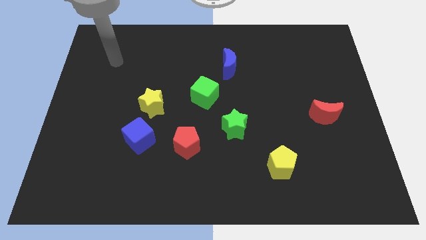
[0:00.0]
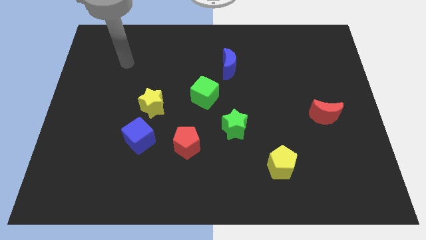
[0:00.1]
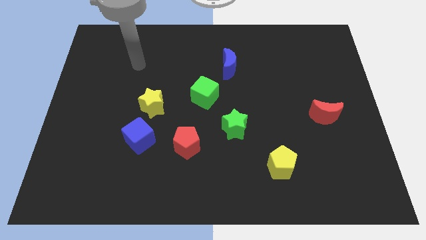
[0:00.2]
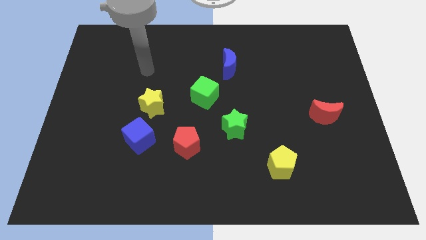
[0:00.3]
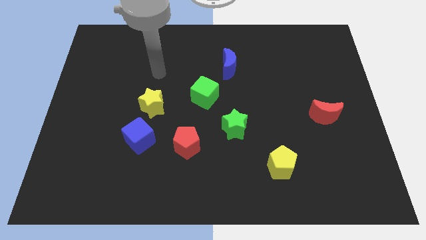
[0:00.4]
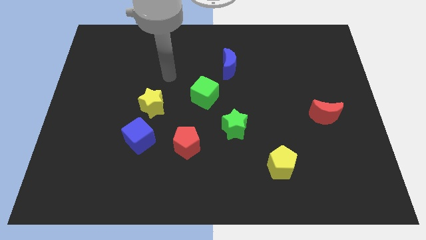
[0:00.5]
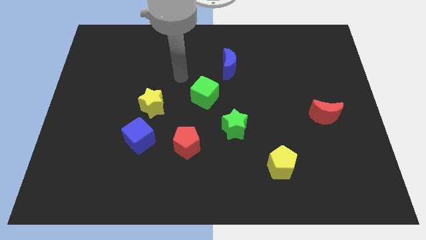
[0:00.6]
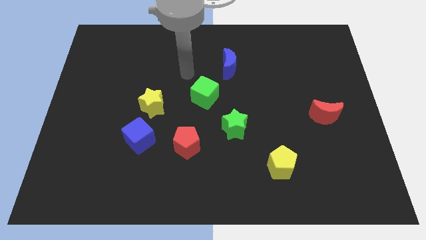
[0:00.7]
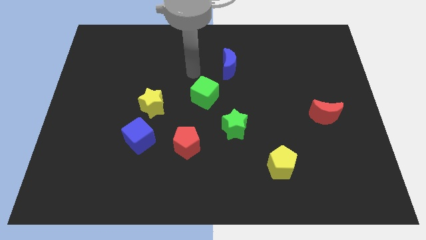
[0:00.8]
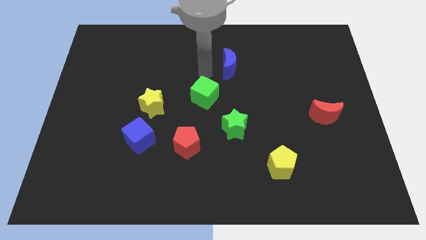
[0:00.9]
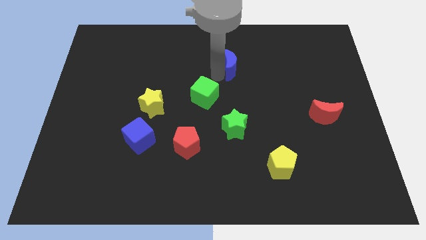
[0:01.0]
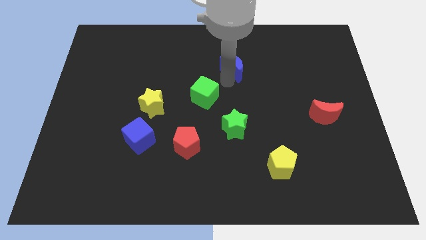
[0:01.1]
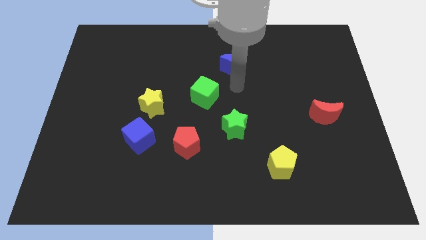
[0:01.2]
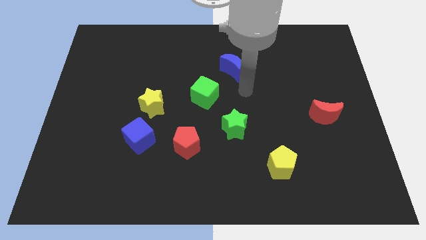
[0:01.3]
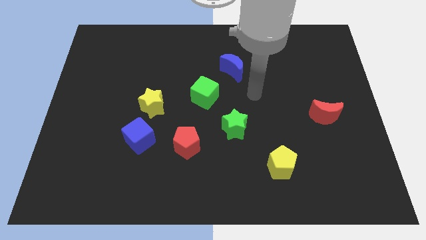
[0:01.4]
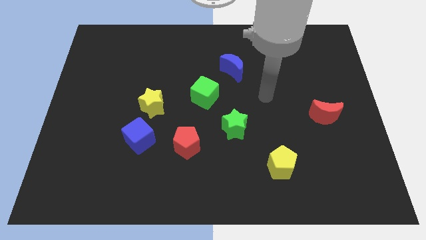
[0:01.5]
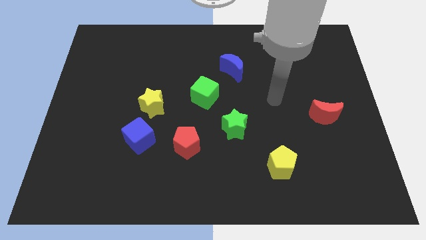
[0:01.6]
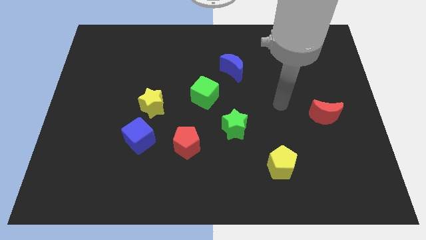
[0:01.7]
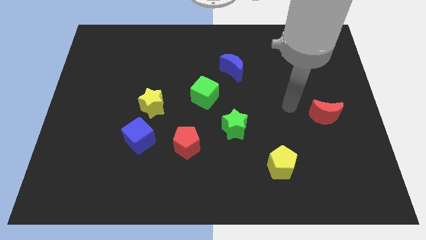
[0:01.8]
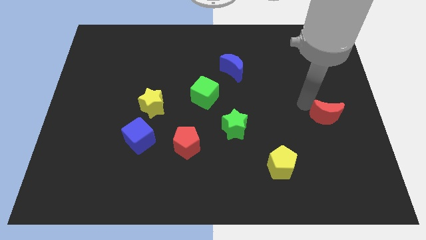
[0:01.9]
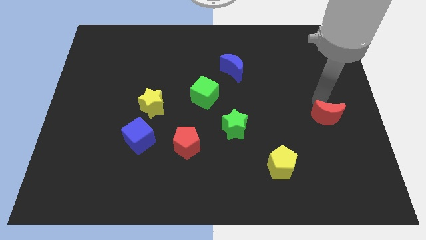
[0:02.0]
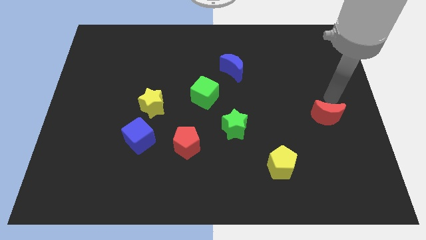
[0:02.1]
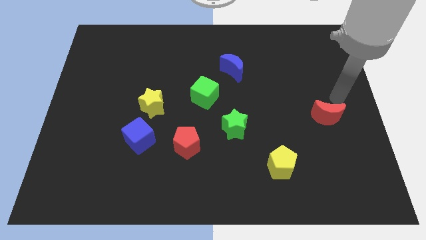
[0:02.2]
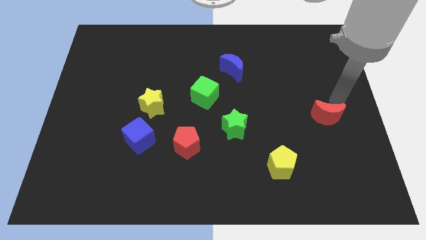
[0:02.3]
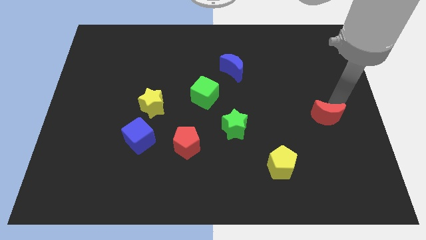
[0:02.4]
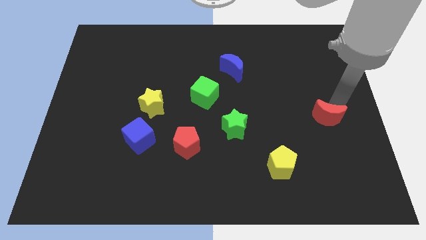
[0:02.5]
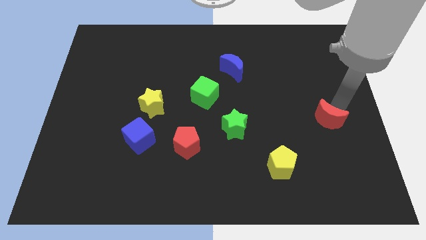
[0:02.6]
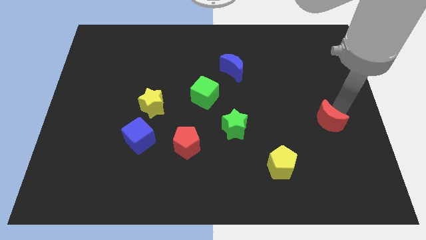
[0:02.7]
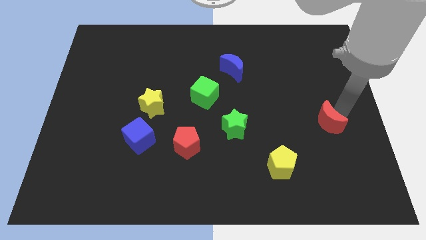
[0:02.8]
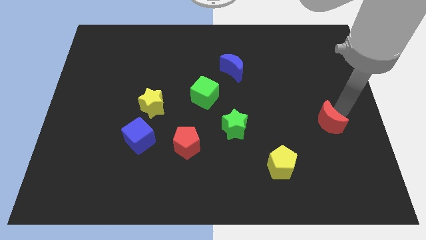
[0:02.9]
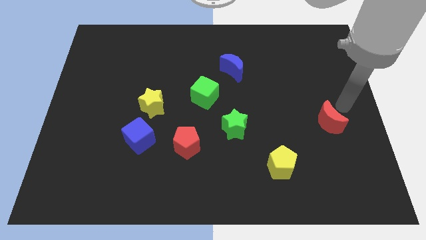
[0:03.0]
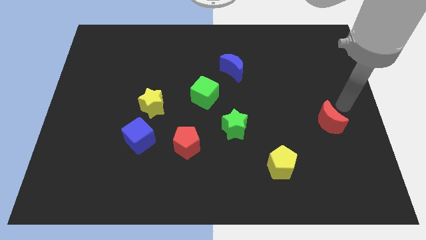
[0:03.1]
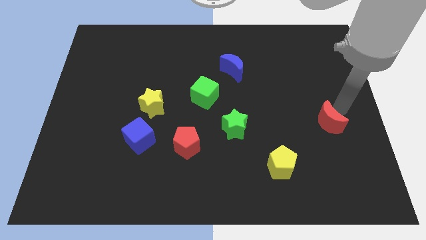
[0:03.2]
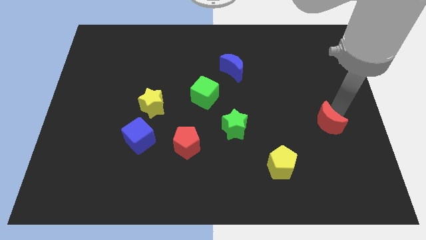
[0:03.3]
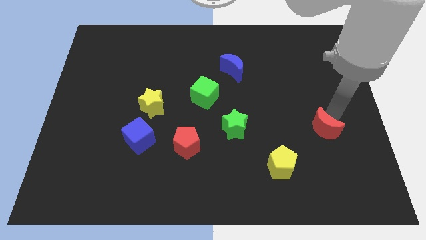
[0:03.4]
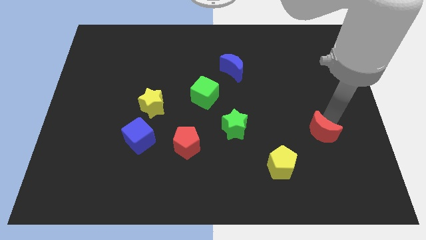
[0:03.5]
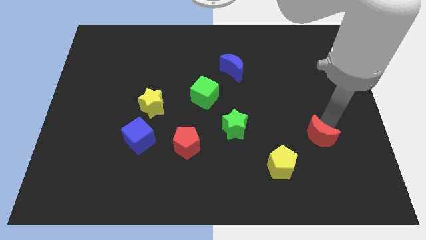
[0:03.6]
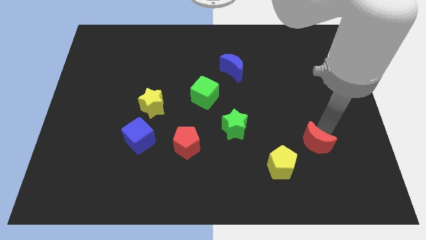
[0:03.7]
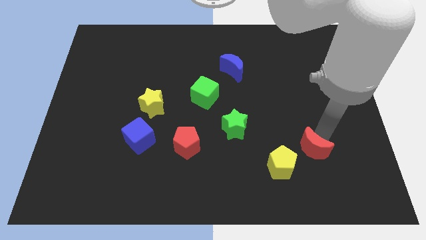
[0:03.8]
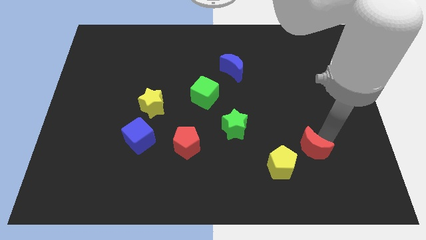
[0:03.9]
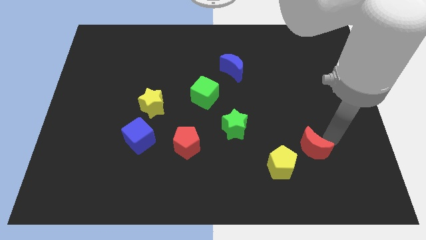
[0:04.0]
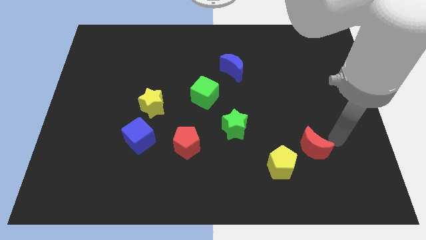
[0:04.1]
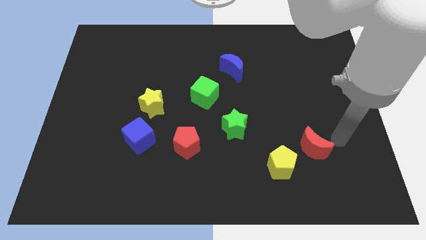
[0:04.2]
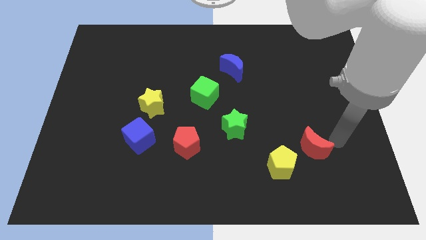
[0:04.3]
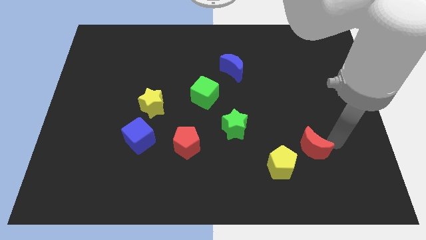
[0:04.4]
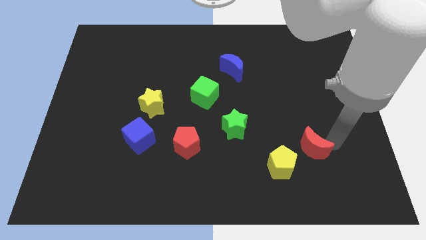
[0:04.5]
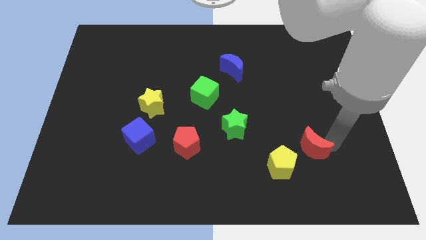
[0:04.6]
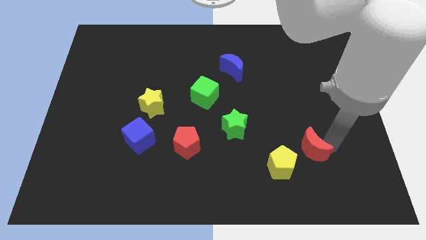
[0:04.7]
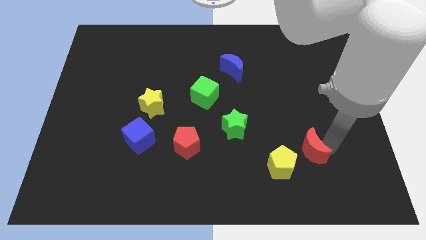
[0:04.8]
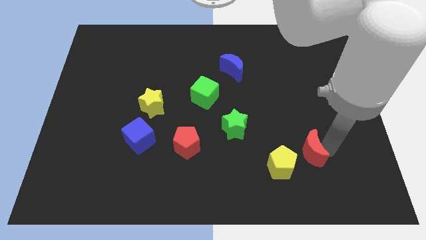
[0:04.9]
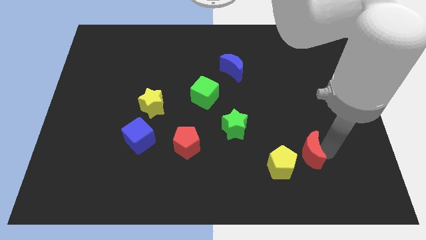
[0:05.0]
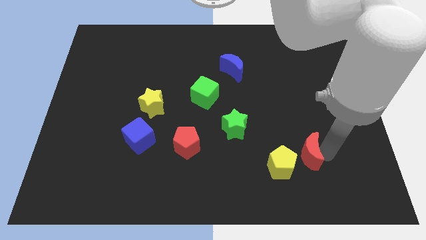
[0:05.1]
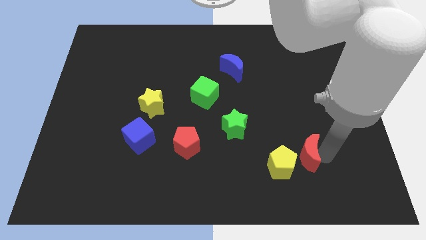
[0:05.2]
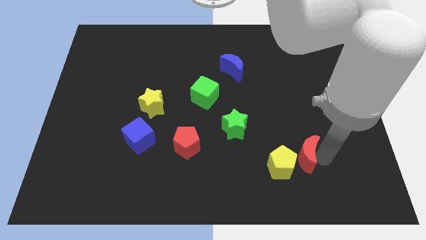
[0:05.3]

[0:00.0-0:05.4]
slide the red moon close to the yellow pentagon

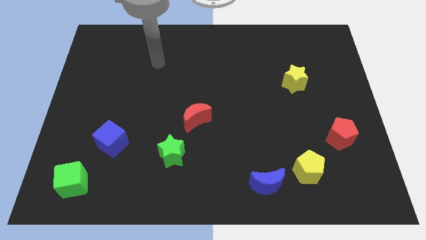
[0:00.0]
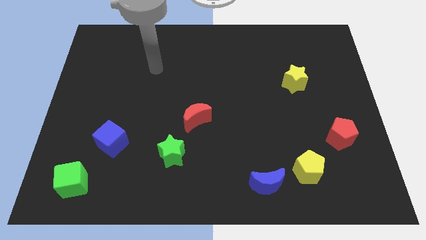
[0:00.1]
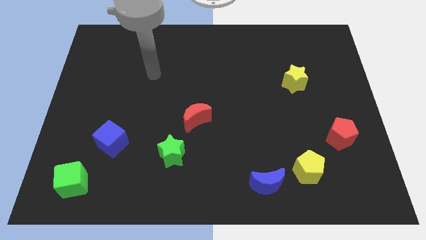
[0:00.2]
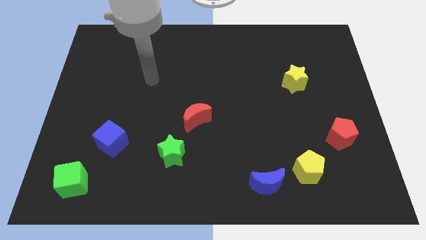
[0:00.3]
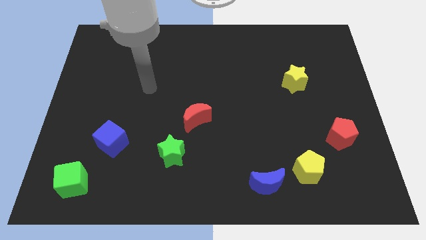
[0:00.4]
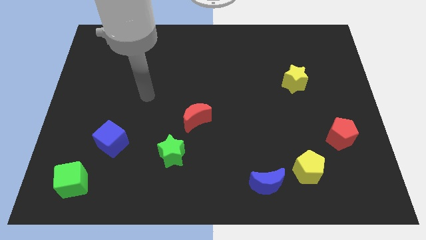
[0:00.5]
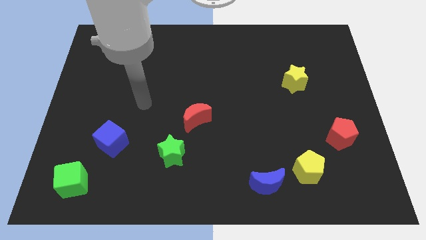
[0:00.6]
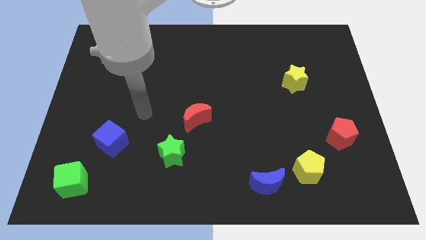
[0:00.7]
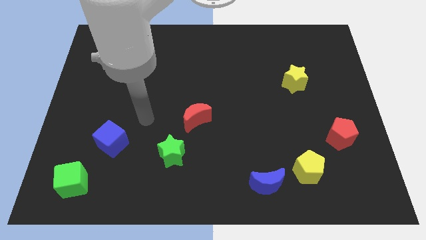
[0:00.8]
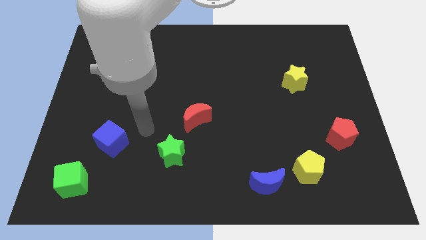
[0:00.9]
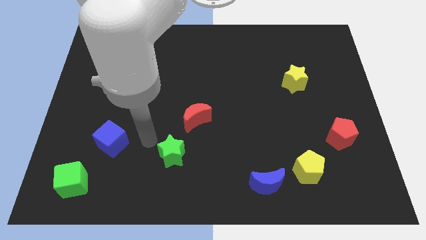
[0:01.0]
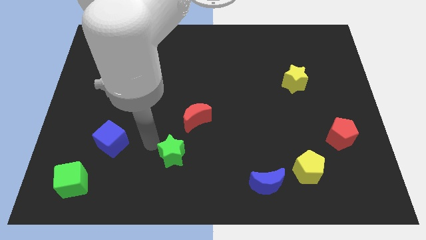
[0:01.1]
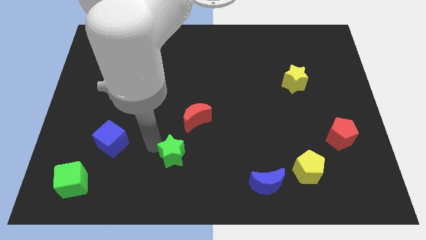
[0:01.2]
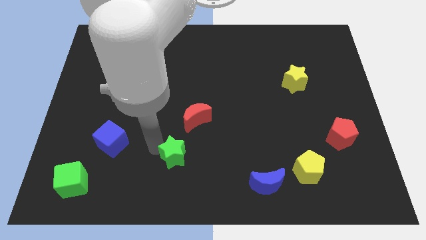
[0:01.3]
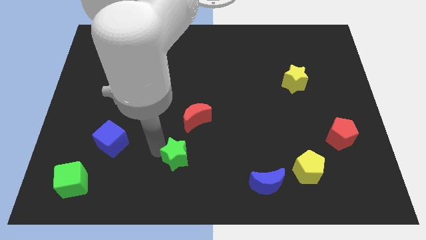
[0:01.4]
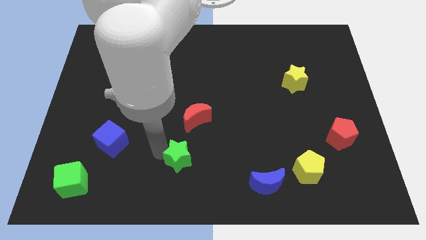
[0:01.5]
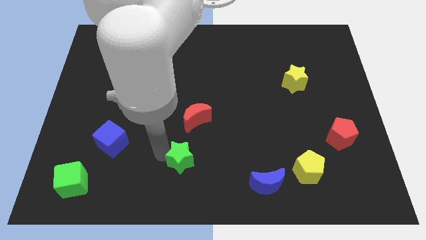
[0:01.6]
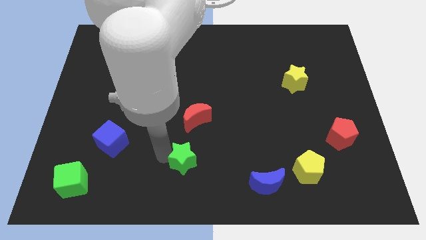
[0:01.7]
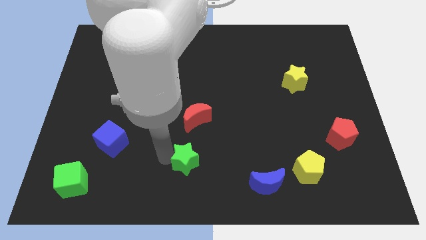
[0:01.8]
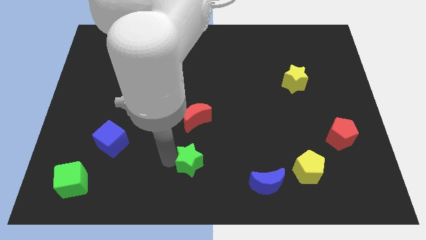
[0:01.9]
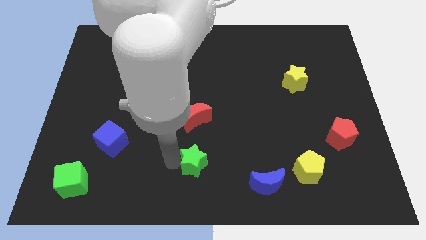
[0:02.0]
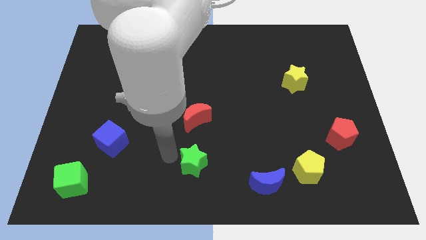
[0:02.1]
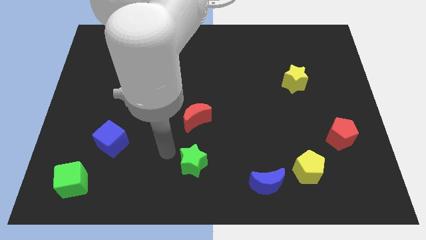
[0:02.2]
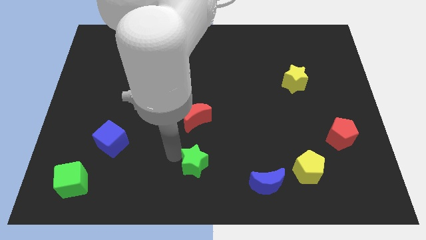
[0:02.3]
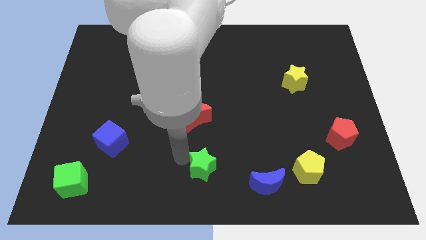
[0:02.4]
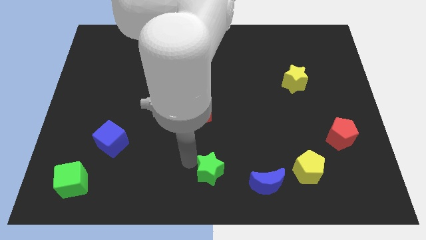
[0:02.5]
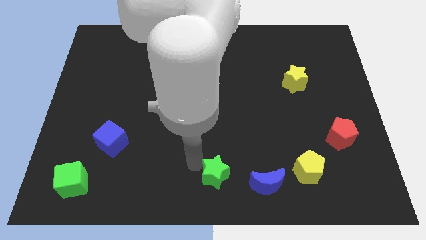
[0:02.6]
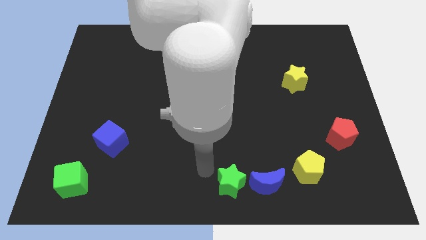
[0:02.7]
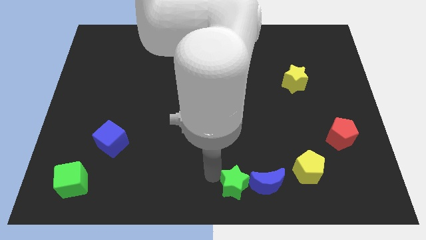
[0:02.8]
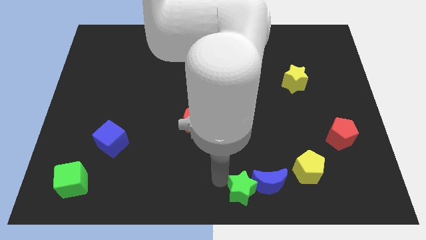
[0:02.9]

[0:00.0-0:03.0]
move the green star next to the blue moon
